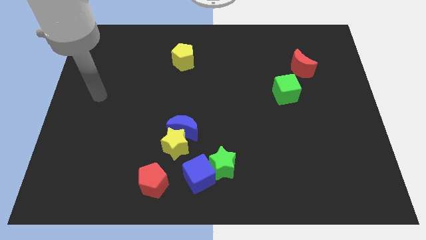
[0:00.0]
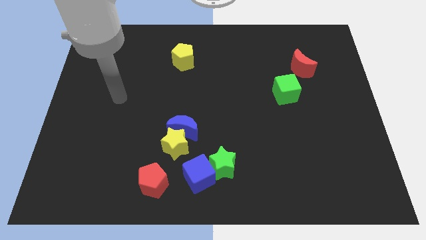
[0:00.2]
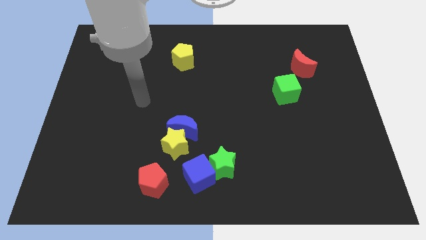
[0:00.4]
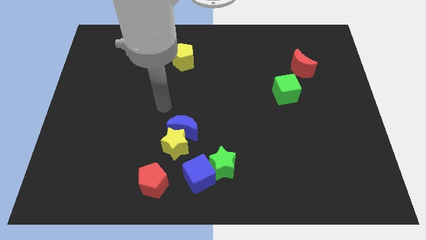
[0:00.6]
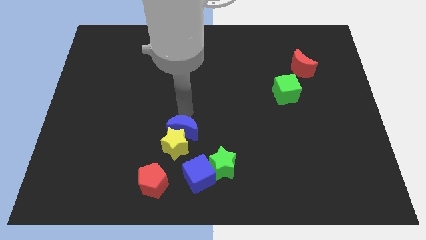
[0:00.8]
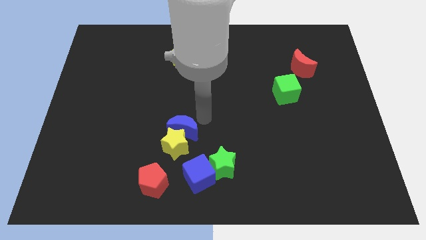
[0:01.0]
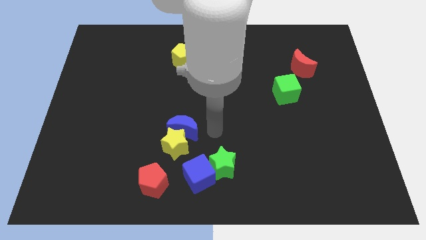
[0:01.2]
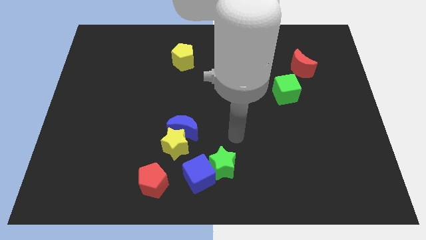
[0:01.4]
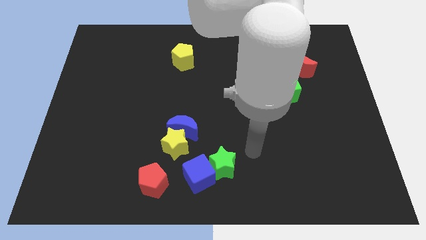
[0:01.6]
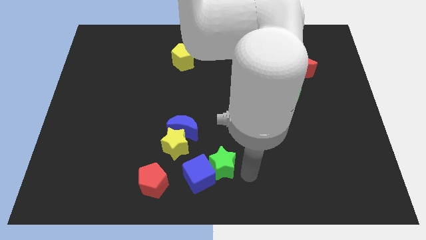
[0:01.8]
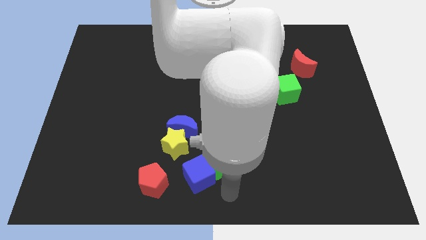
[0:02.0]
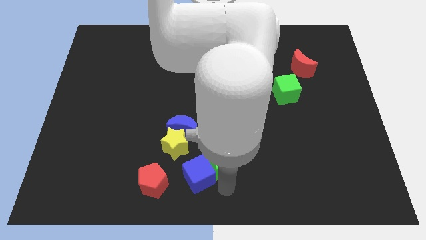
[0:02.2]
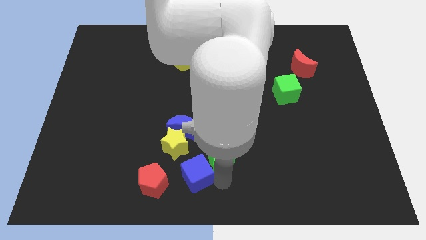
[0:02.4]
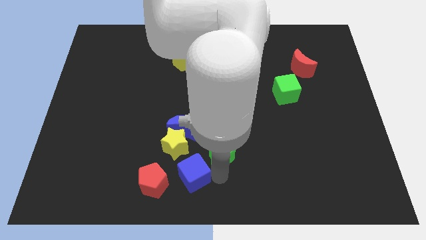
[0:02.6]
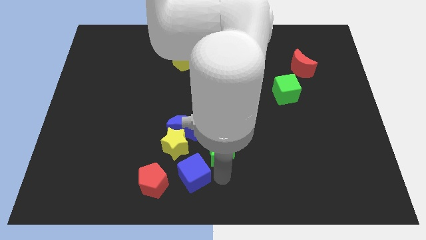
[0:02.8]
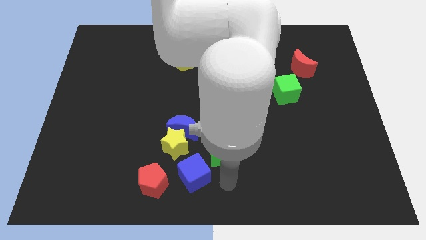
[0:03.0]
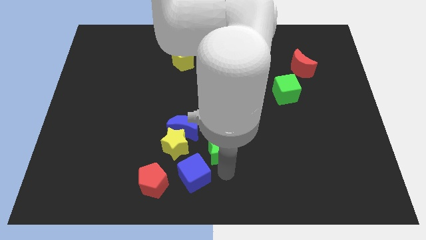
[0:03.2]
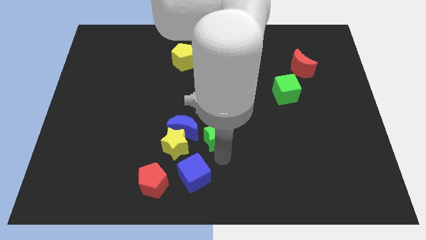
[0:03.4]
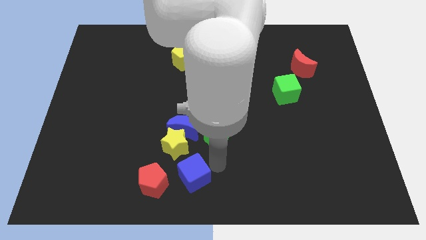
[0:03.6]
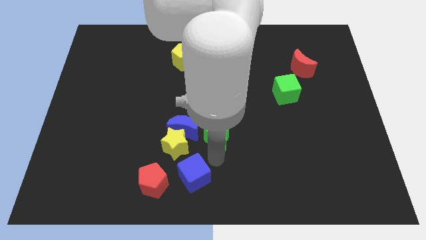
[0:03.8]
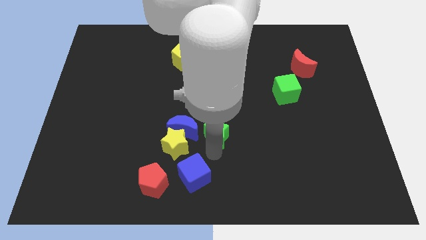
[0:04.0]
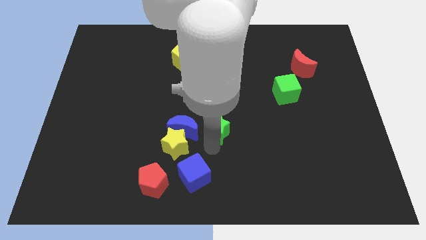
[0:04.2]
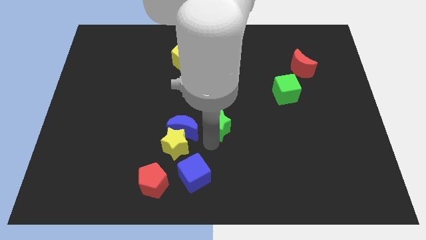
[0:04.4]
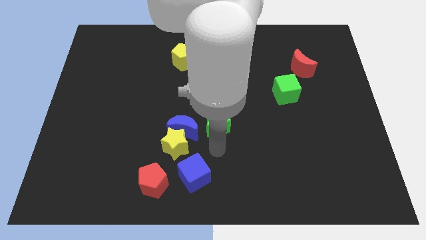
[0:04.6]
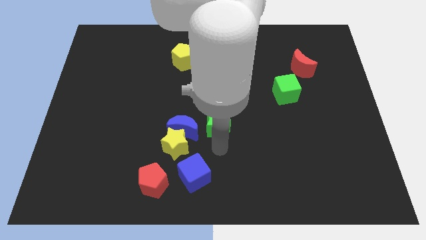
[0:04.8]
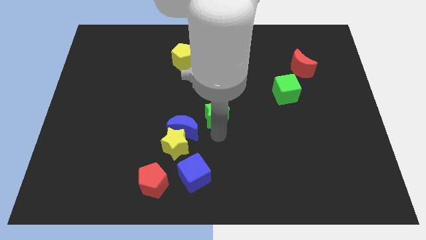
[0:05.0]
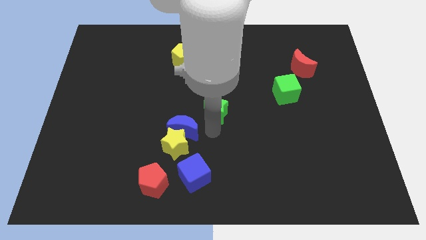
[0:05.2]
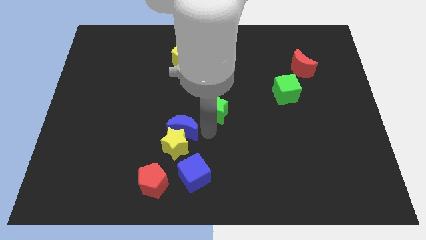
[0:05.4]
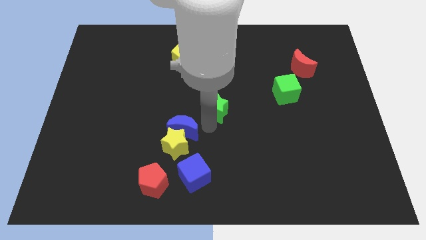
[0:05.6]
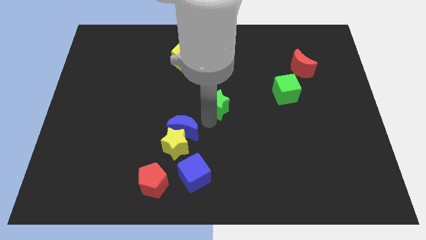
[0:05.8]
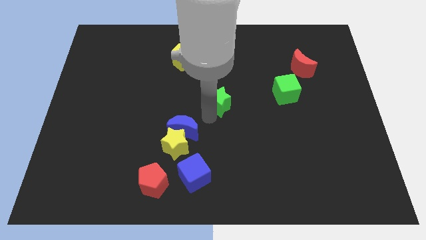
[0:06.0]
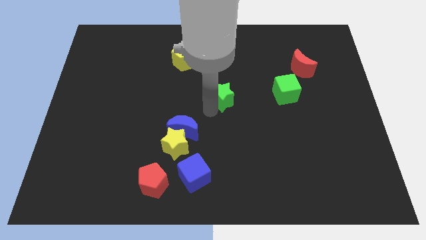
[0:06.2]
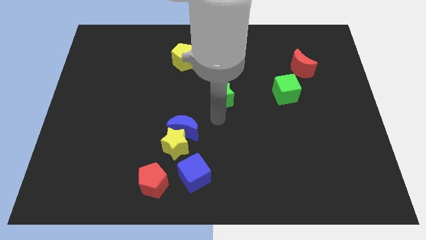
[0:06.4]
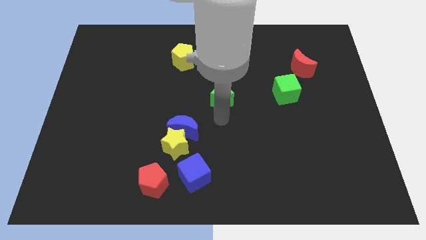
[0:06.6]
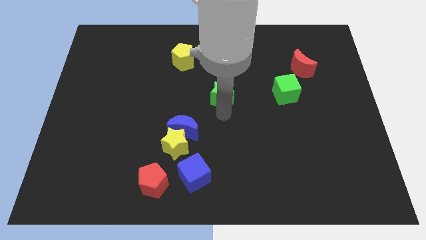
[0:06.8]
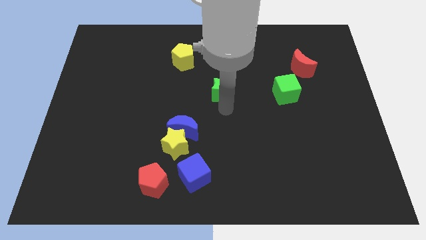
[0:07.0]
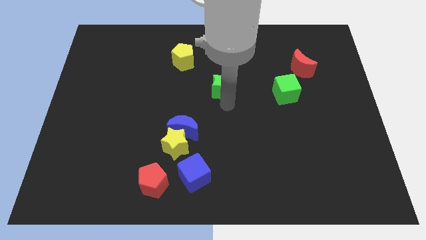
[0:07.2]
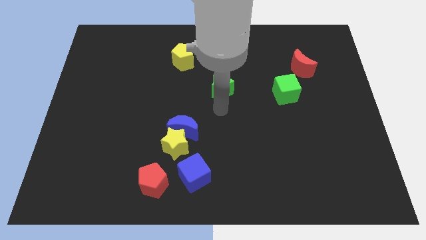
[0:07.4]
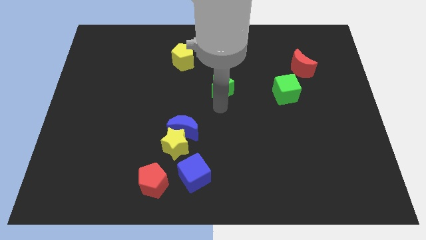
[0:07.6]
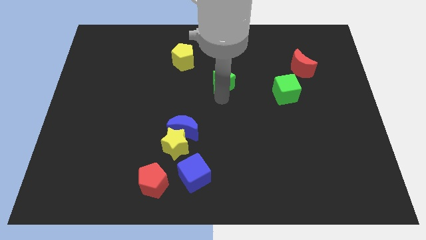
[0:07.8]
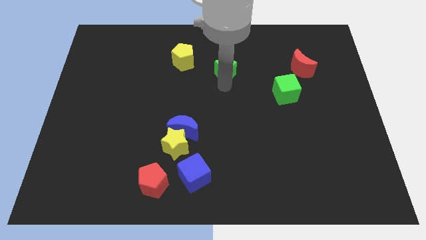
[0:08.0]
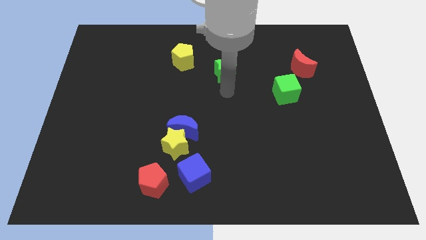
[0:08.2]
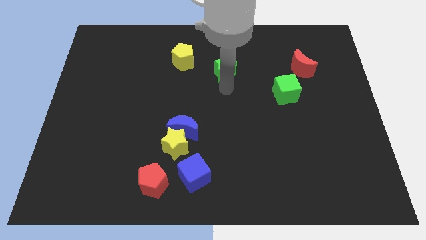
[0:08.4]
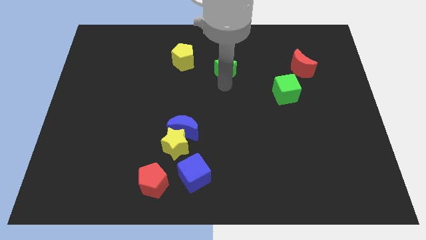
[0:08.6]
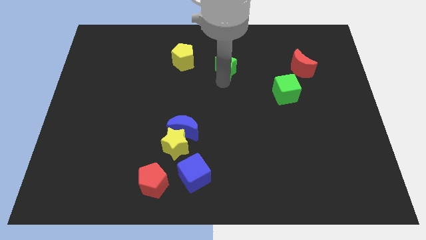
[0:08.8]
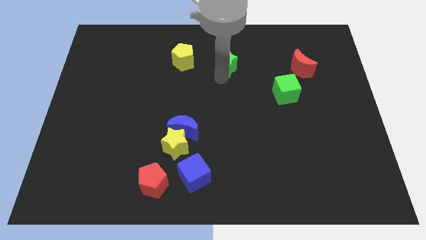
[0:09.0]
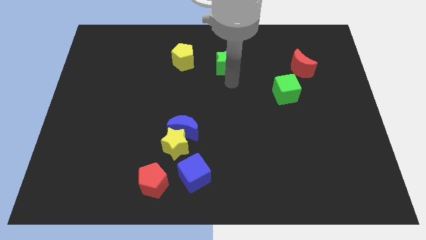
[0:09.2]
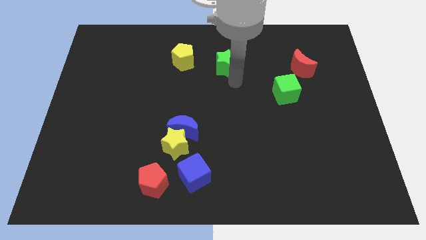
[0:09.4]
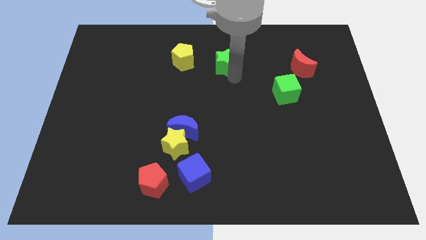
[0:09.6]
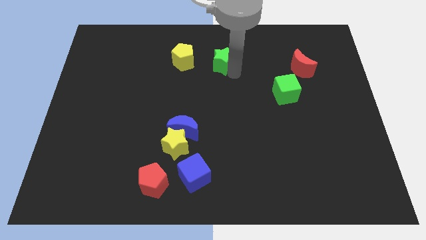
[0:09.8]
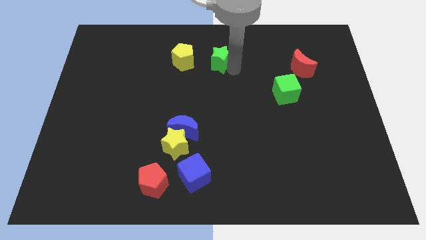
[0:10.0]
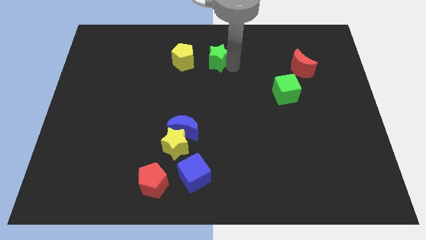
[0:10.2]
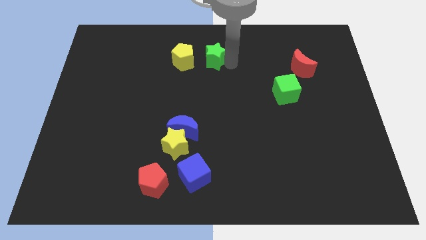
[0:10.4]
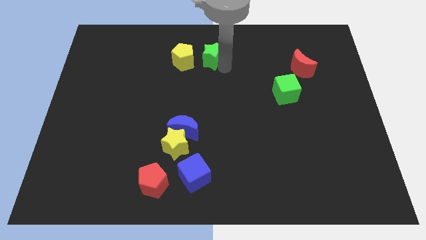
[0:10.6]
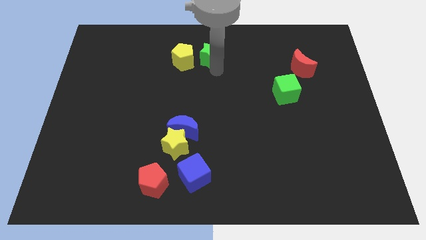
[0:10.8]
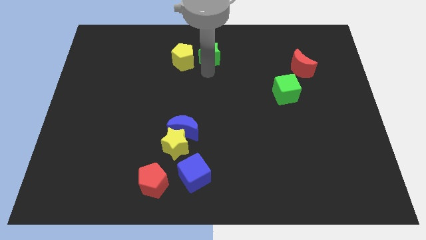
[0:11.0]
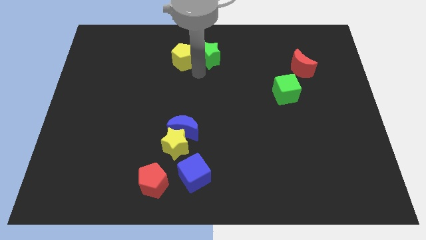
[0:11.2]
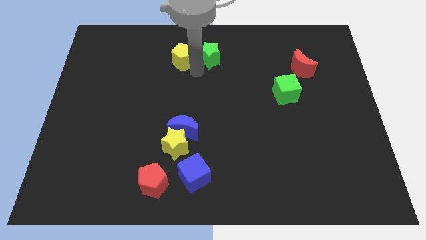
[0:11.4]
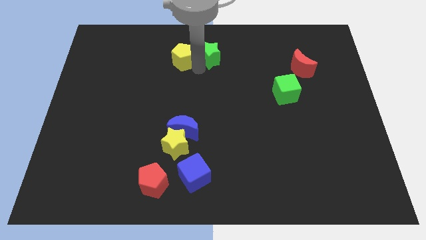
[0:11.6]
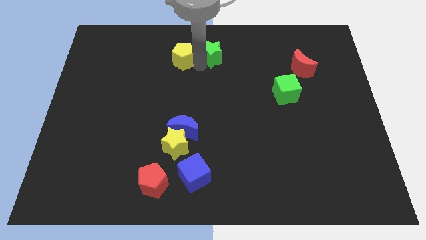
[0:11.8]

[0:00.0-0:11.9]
slide the green star to the top

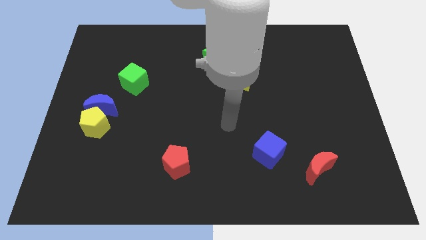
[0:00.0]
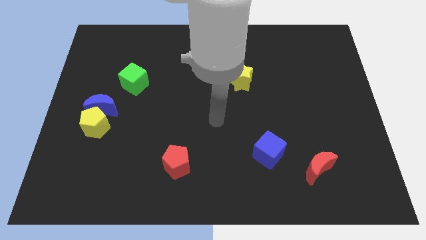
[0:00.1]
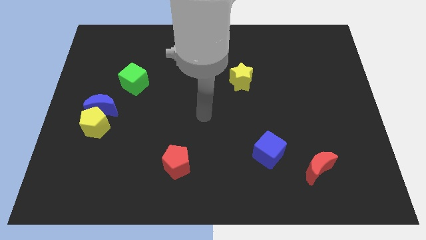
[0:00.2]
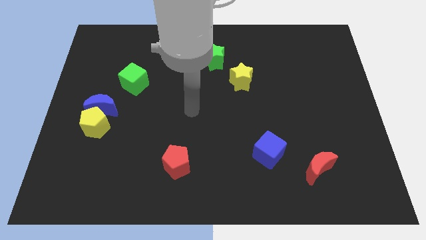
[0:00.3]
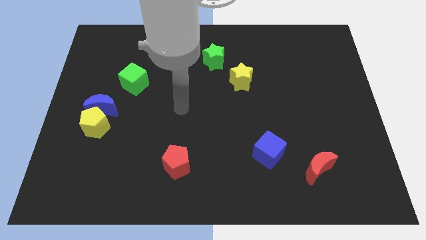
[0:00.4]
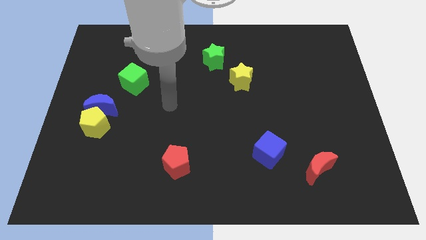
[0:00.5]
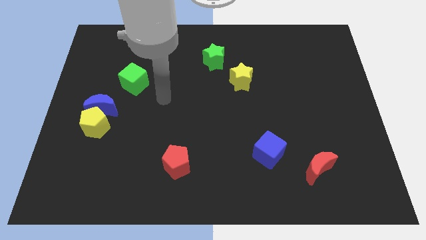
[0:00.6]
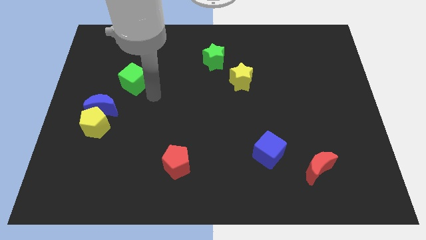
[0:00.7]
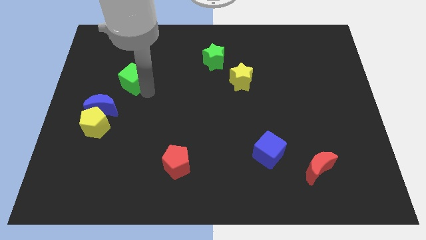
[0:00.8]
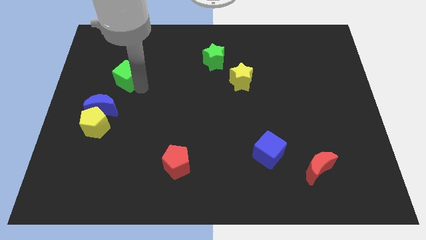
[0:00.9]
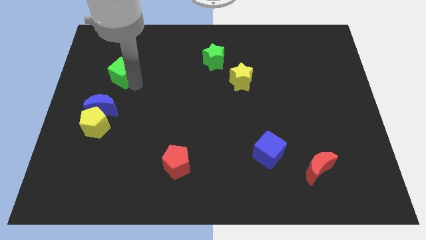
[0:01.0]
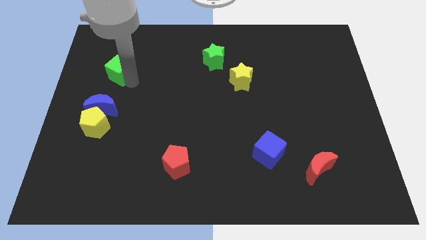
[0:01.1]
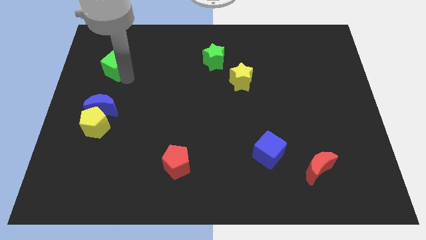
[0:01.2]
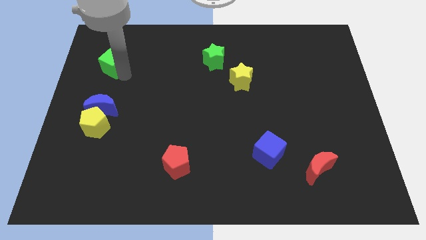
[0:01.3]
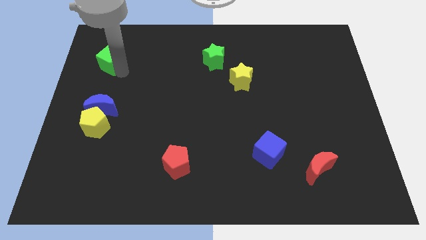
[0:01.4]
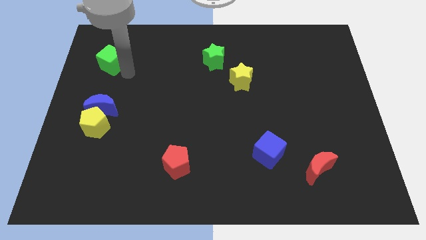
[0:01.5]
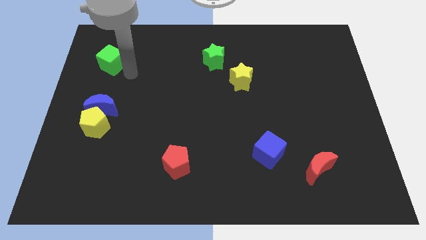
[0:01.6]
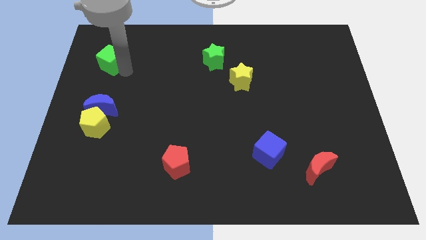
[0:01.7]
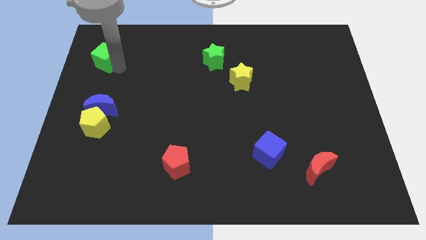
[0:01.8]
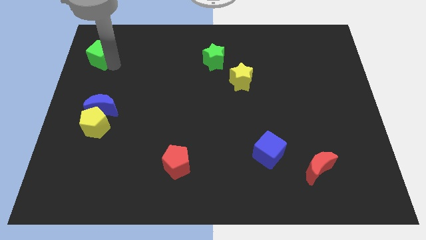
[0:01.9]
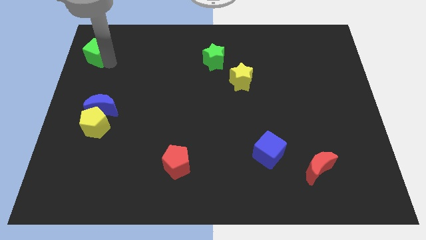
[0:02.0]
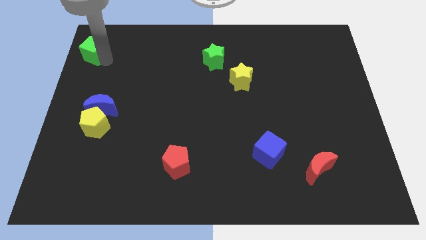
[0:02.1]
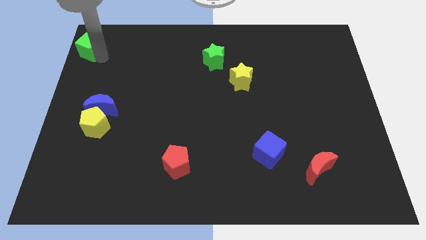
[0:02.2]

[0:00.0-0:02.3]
put the green cube to the top left corner
